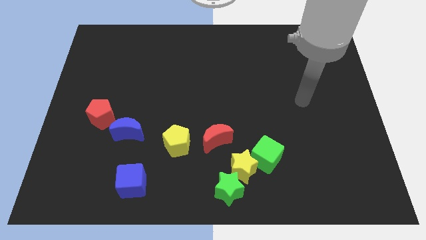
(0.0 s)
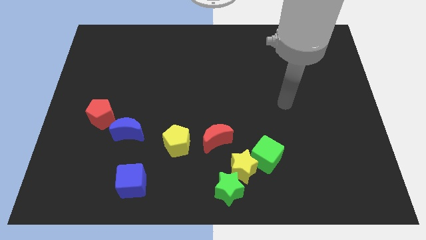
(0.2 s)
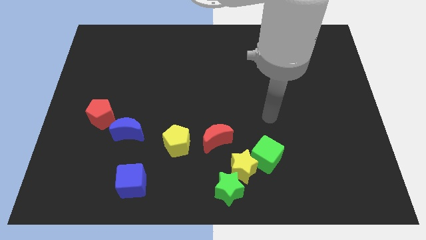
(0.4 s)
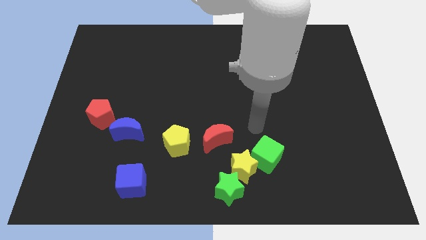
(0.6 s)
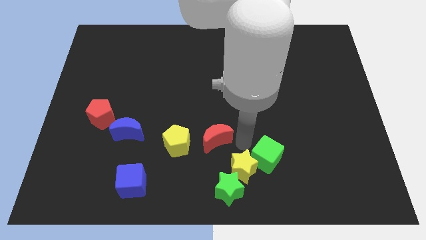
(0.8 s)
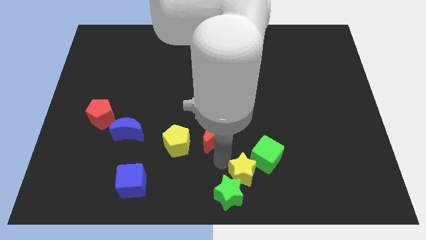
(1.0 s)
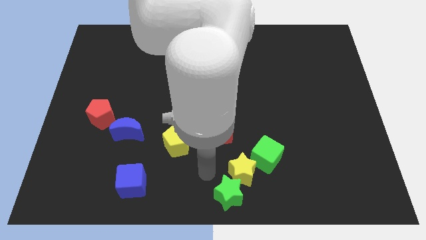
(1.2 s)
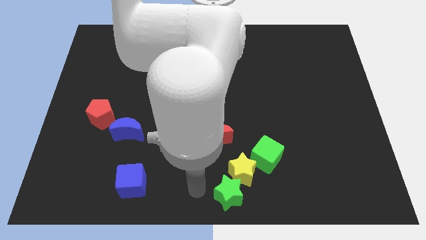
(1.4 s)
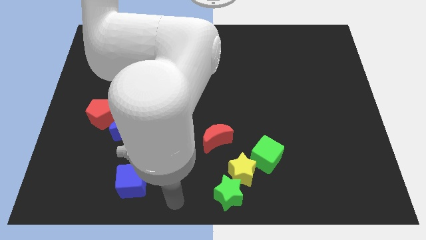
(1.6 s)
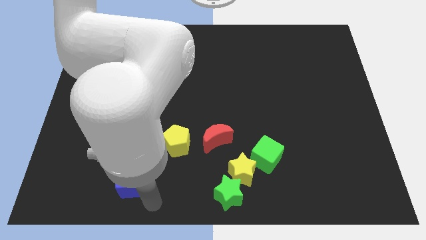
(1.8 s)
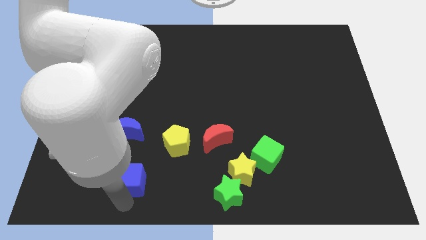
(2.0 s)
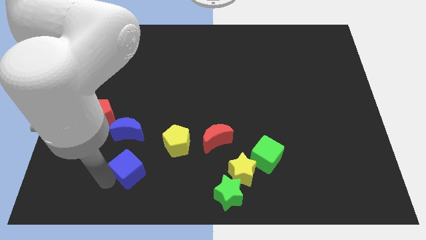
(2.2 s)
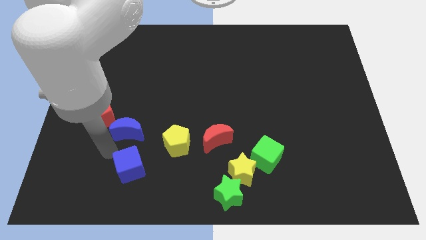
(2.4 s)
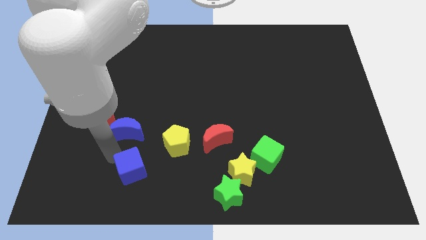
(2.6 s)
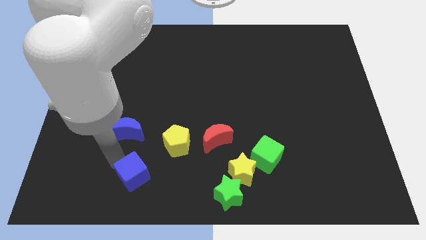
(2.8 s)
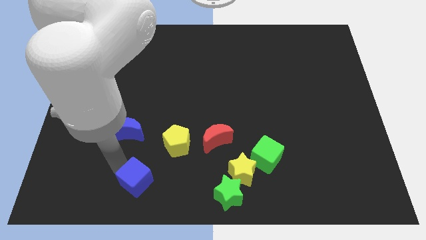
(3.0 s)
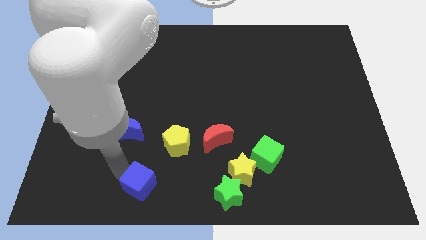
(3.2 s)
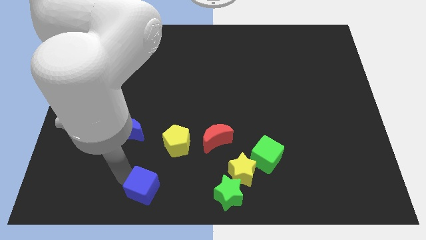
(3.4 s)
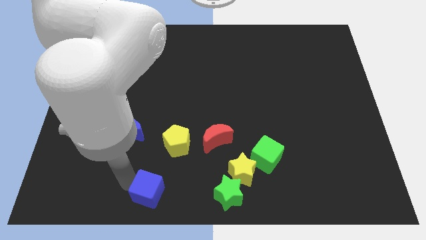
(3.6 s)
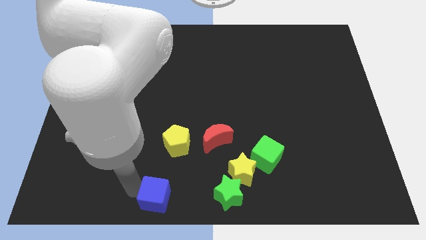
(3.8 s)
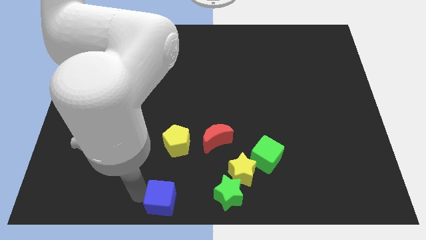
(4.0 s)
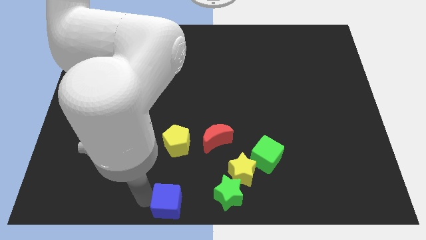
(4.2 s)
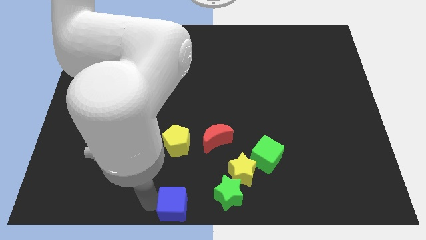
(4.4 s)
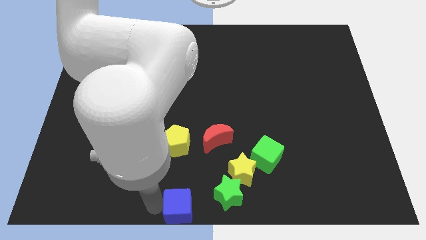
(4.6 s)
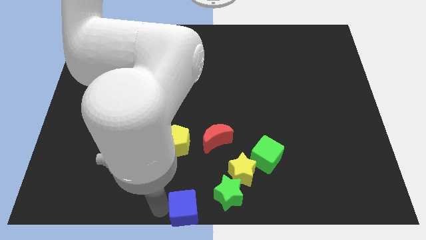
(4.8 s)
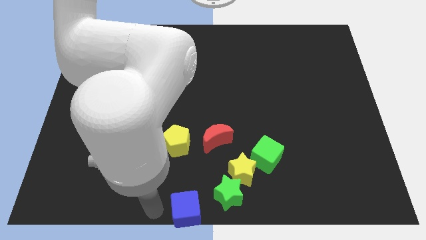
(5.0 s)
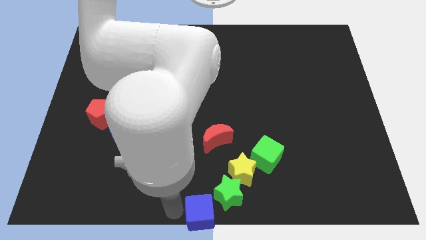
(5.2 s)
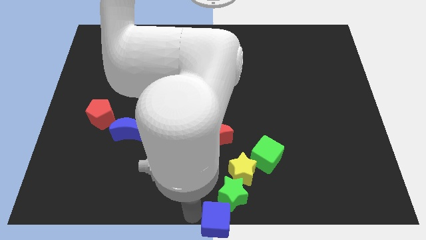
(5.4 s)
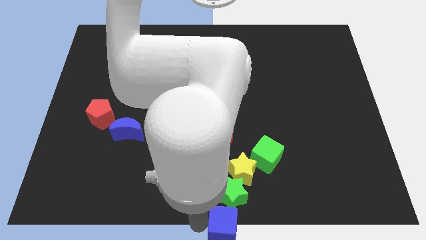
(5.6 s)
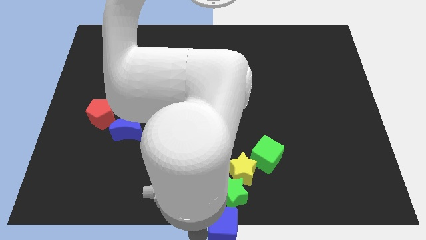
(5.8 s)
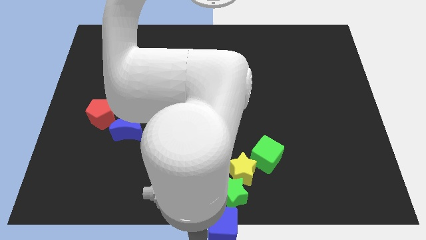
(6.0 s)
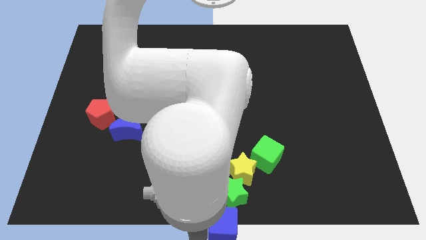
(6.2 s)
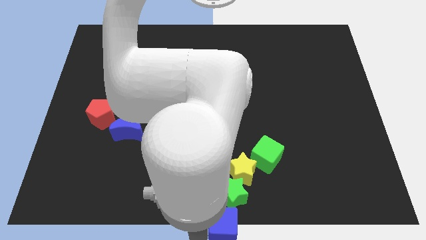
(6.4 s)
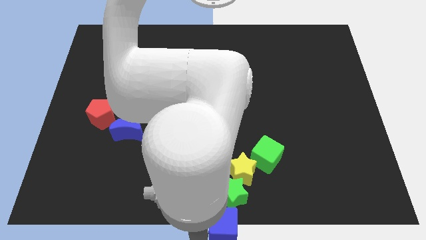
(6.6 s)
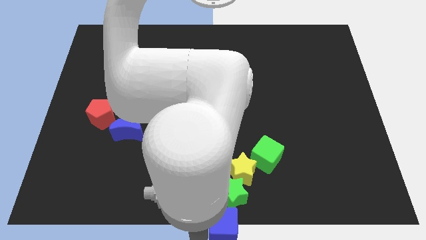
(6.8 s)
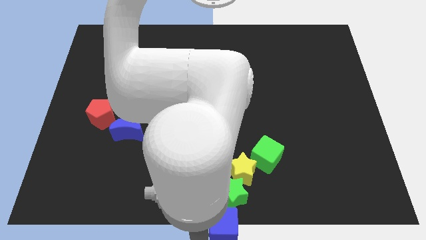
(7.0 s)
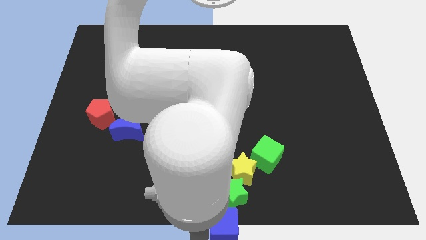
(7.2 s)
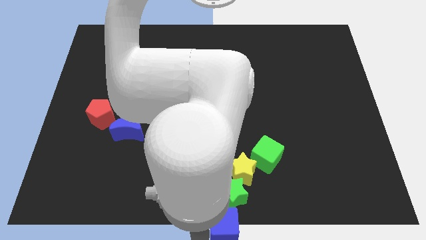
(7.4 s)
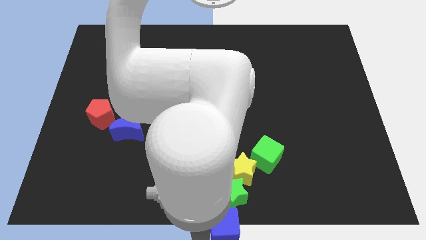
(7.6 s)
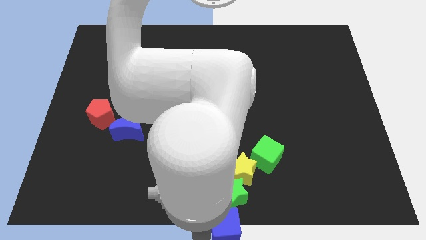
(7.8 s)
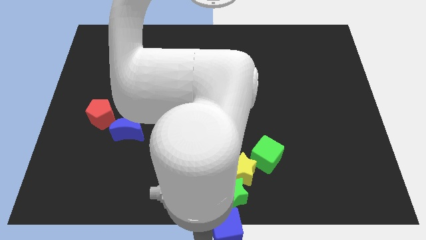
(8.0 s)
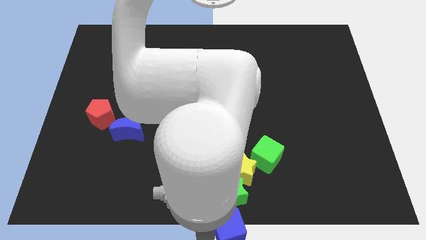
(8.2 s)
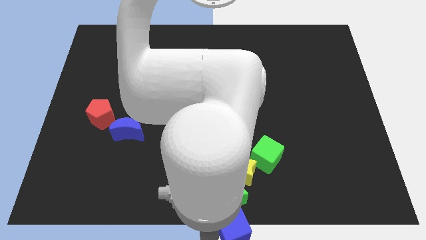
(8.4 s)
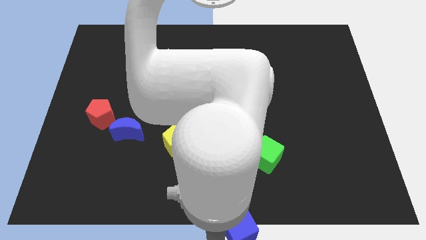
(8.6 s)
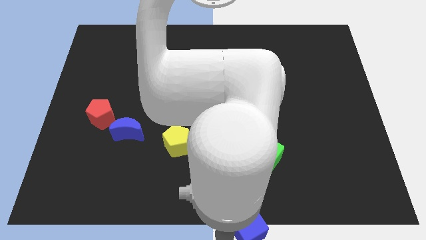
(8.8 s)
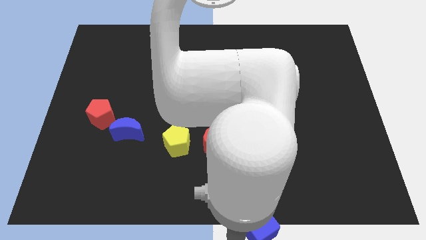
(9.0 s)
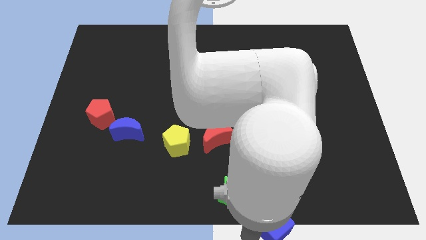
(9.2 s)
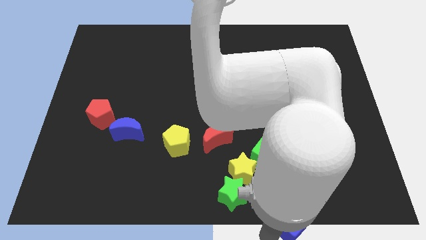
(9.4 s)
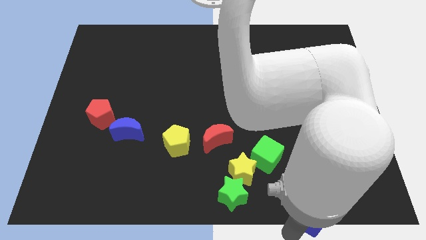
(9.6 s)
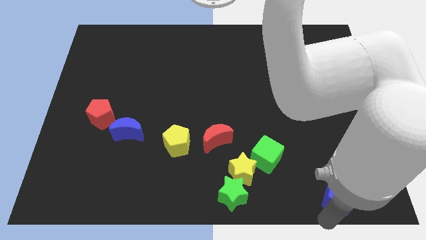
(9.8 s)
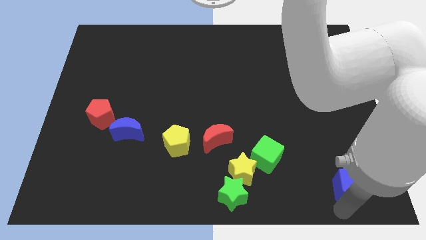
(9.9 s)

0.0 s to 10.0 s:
slide the blue cube to the bottom right corner

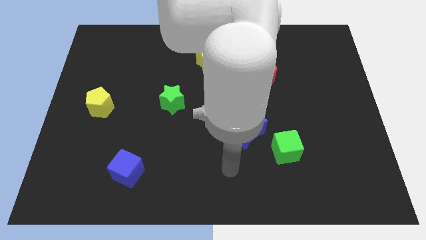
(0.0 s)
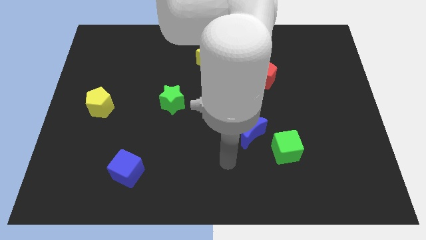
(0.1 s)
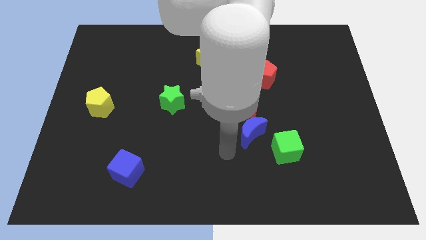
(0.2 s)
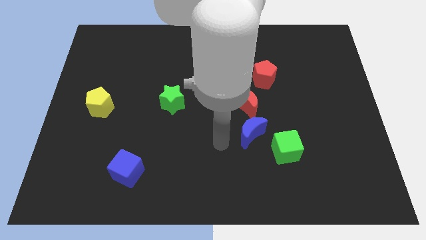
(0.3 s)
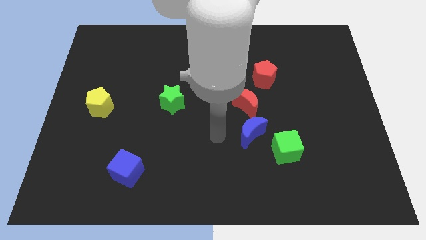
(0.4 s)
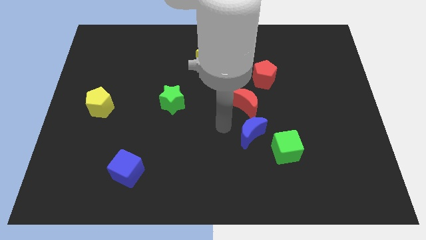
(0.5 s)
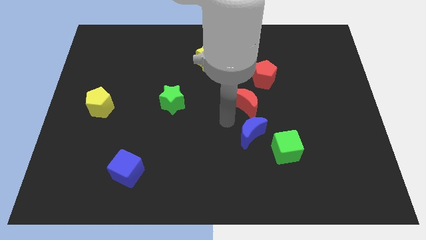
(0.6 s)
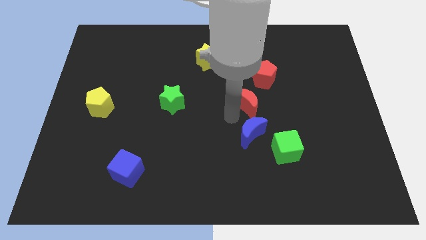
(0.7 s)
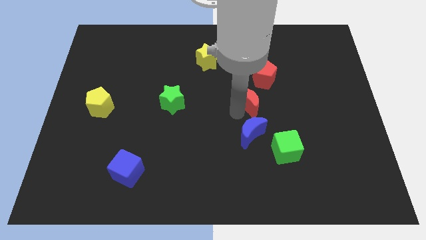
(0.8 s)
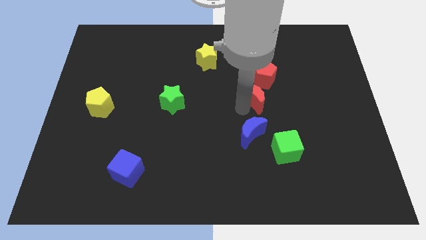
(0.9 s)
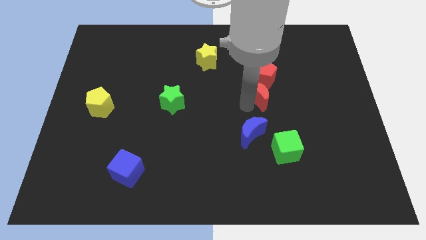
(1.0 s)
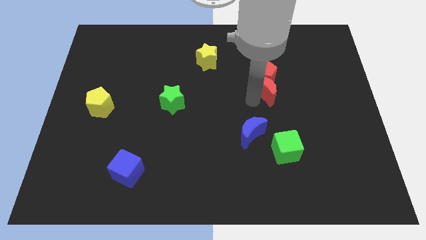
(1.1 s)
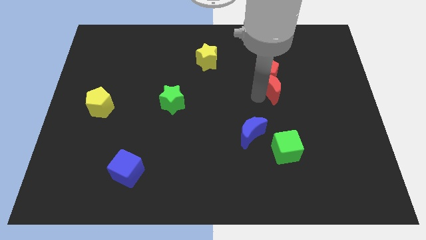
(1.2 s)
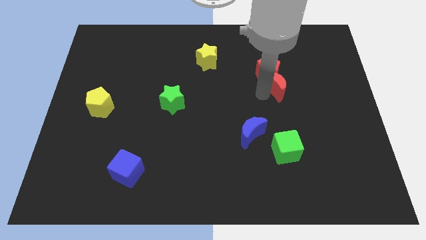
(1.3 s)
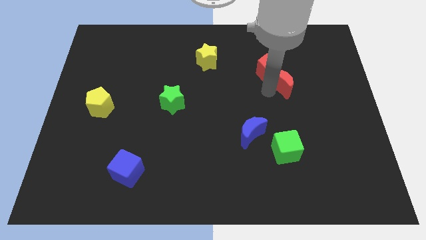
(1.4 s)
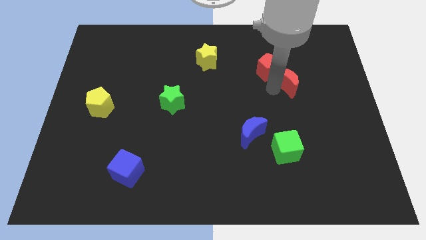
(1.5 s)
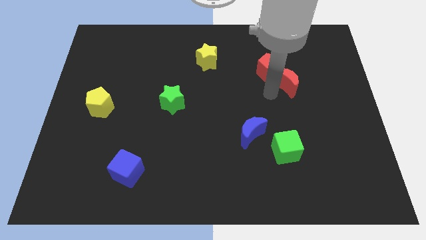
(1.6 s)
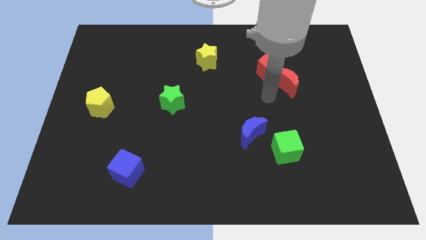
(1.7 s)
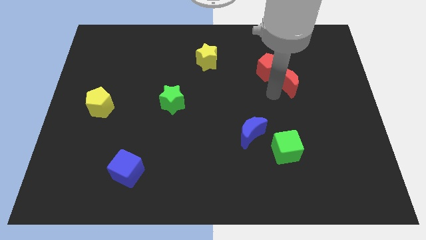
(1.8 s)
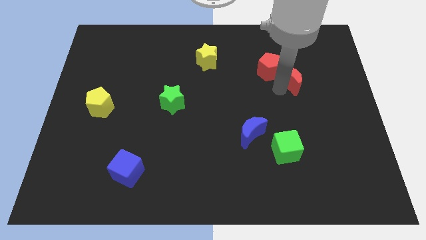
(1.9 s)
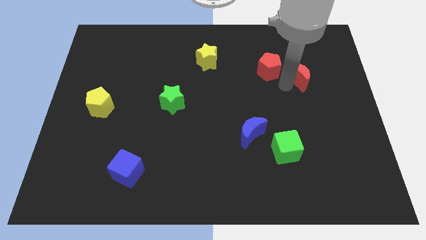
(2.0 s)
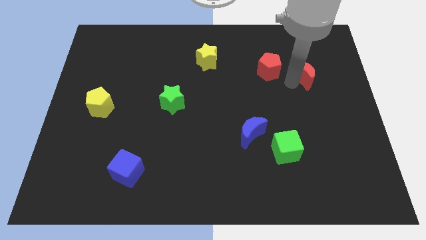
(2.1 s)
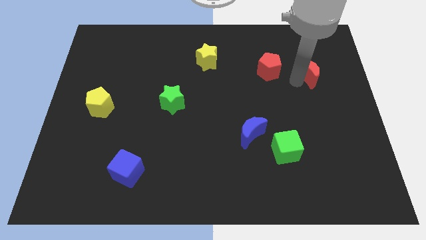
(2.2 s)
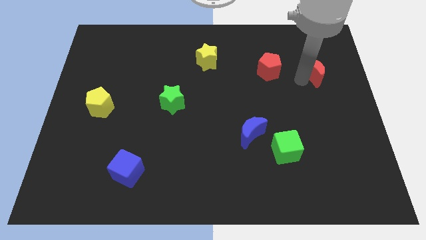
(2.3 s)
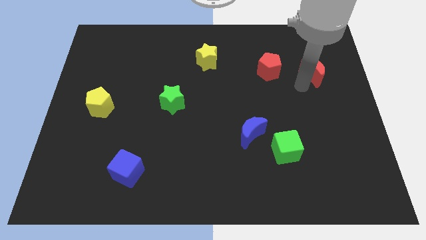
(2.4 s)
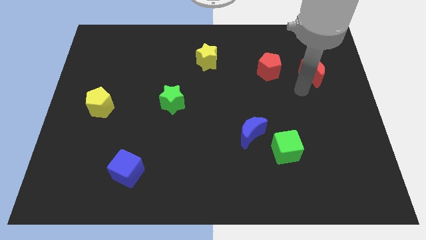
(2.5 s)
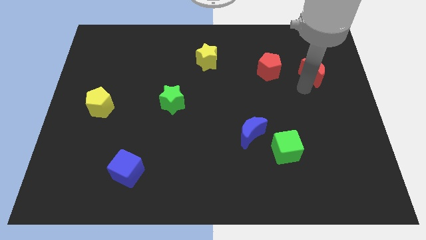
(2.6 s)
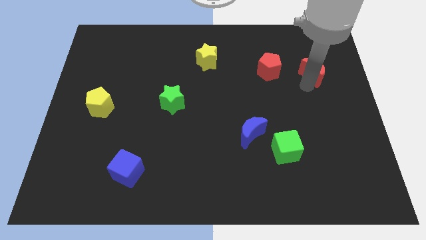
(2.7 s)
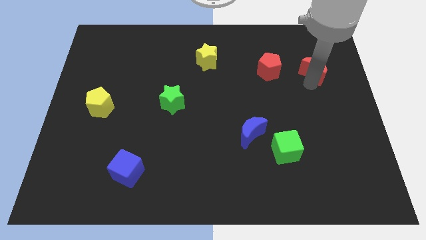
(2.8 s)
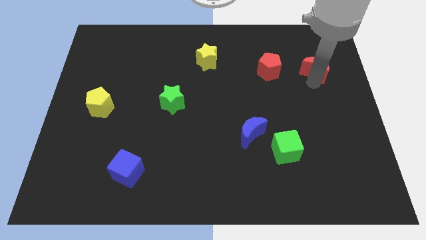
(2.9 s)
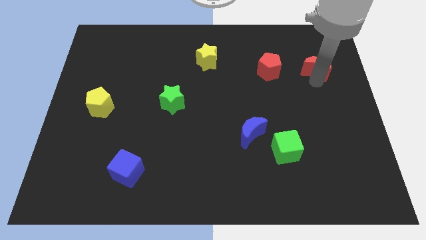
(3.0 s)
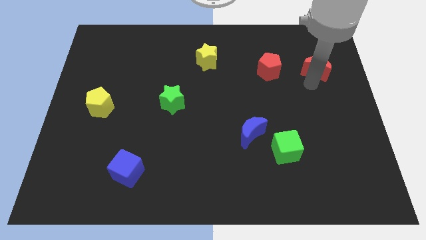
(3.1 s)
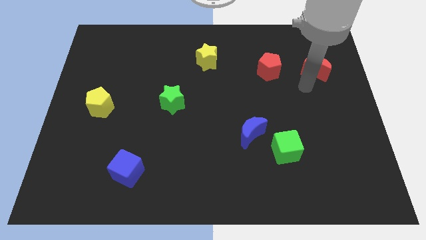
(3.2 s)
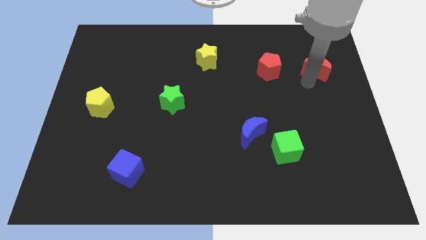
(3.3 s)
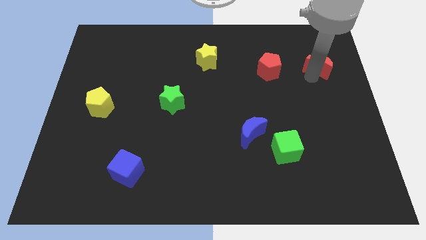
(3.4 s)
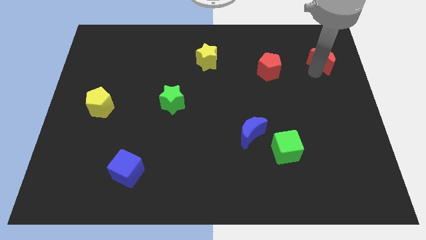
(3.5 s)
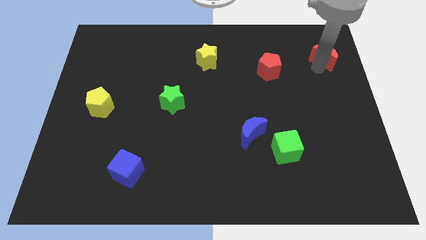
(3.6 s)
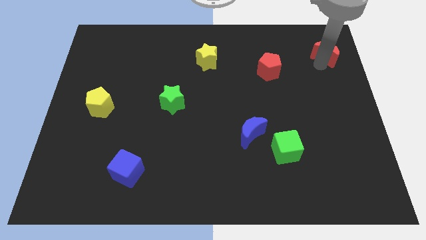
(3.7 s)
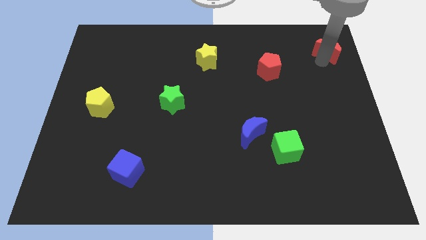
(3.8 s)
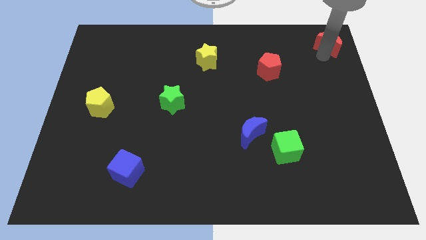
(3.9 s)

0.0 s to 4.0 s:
slide the red moon to the top right corner
